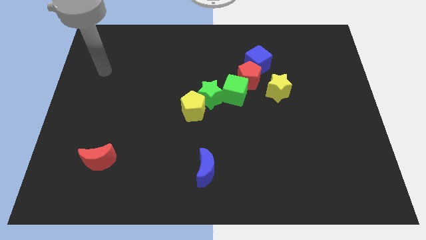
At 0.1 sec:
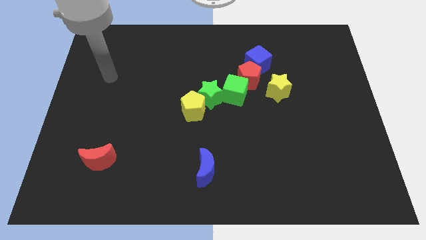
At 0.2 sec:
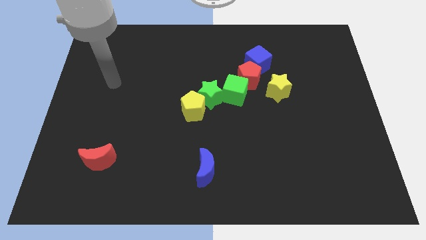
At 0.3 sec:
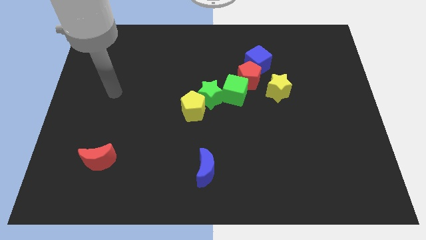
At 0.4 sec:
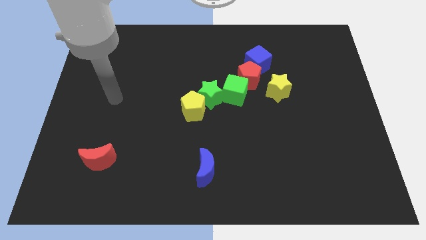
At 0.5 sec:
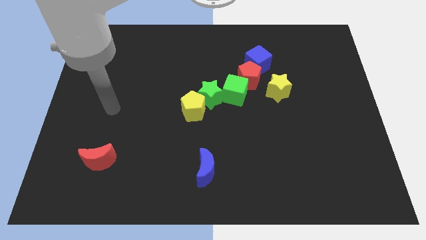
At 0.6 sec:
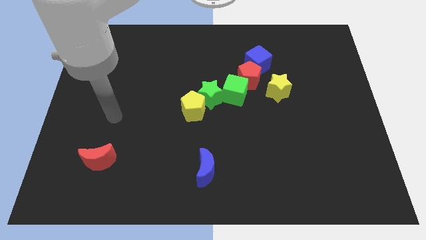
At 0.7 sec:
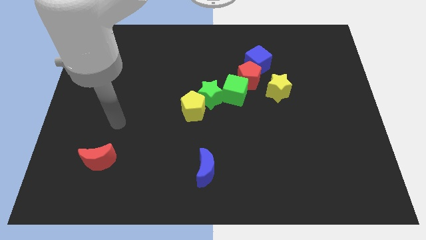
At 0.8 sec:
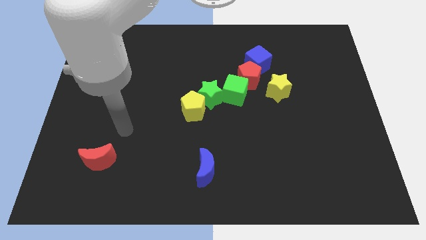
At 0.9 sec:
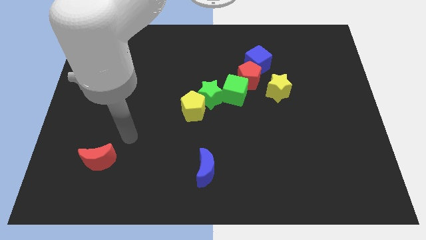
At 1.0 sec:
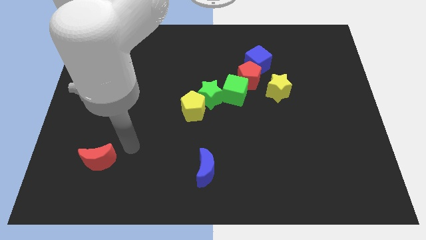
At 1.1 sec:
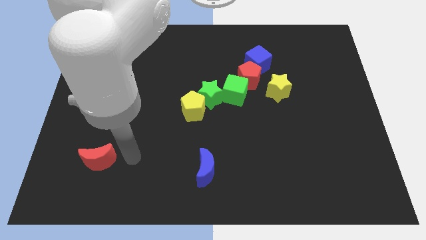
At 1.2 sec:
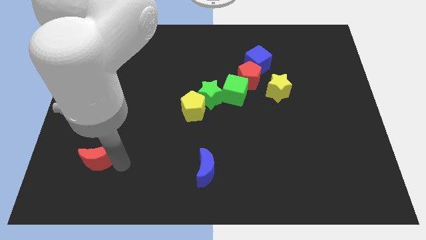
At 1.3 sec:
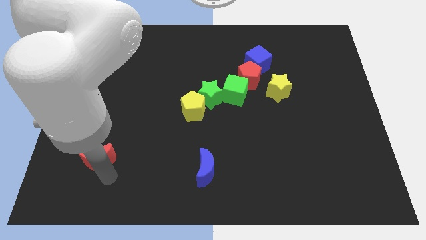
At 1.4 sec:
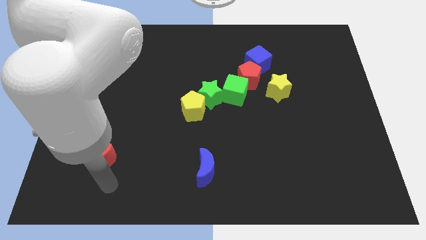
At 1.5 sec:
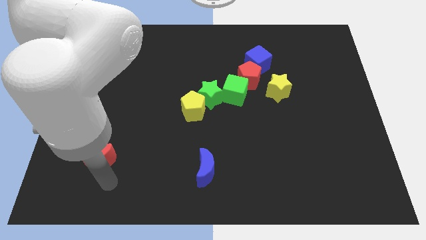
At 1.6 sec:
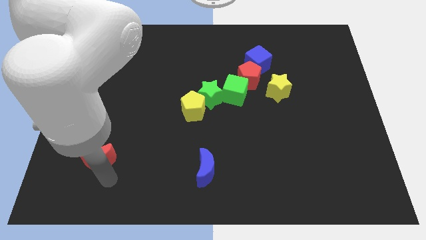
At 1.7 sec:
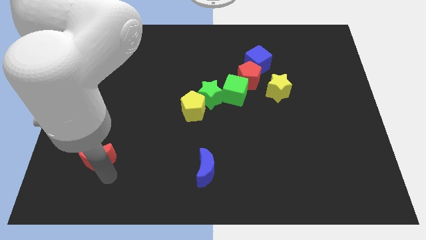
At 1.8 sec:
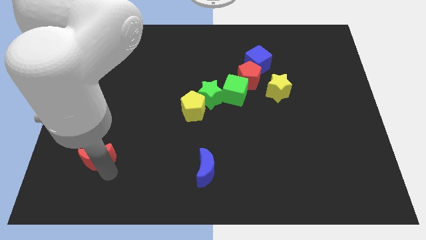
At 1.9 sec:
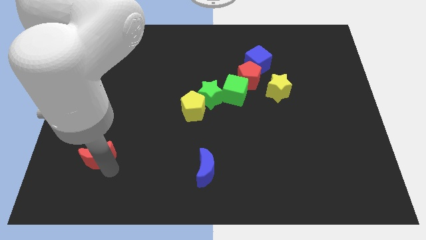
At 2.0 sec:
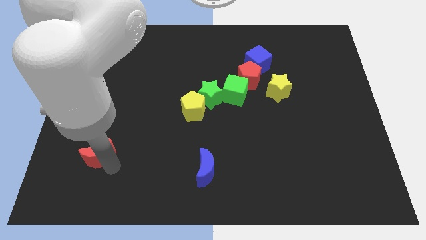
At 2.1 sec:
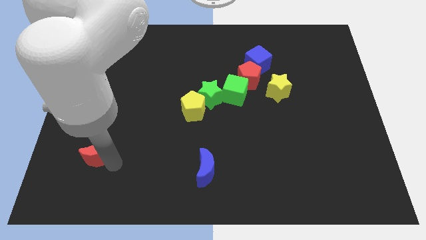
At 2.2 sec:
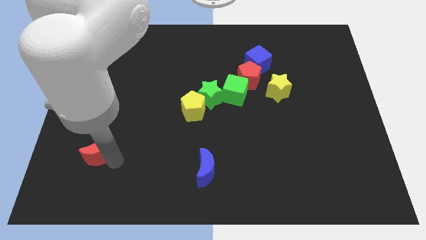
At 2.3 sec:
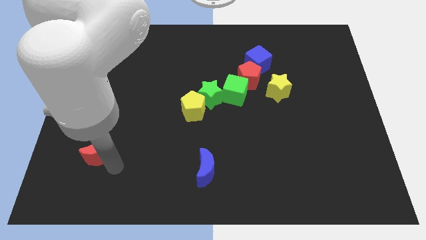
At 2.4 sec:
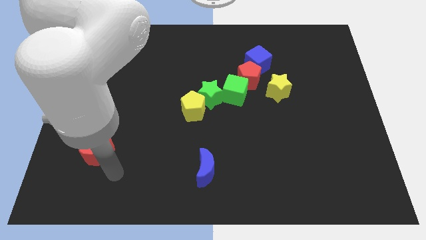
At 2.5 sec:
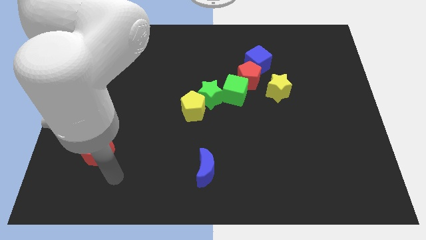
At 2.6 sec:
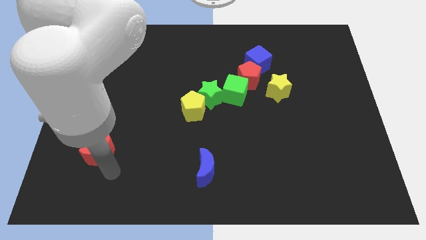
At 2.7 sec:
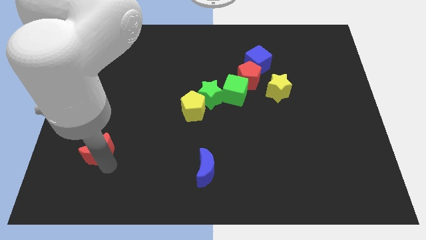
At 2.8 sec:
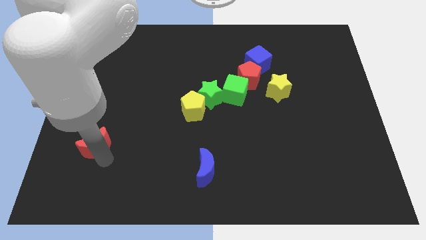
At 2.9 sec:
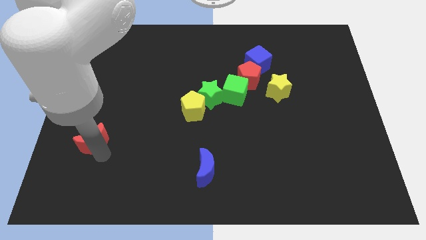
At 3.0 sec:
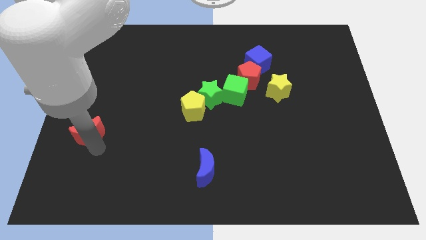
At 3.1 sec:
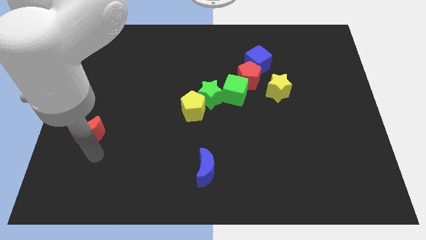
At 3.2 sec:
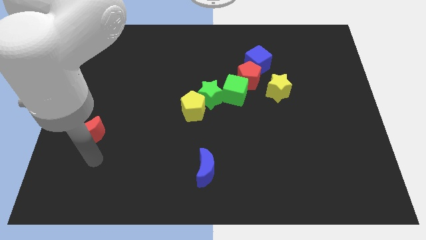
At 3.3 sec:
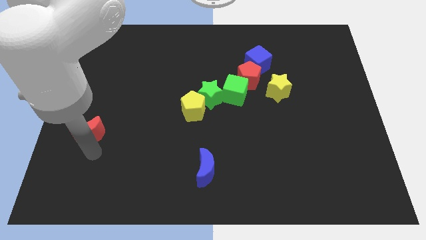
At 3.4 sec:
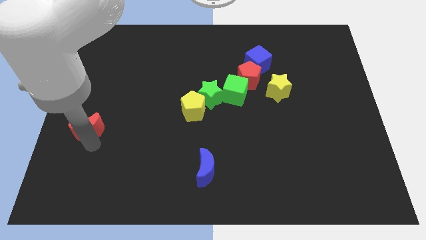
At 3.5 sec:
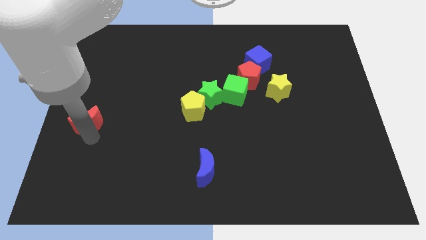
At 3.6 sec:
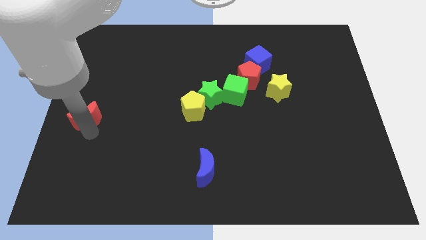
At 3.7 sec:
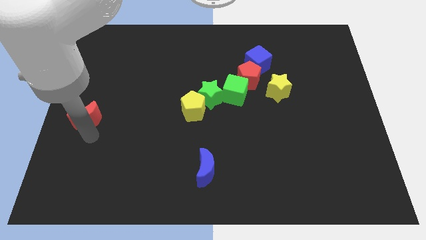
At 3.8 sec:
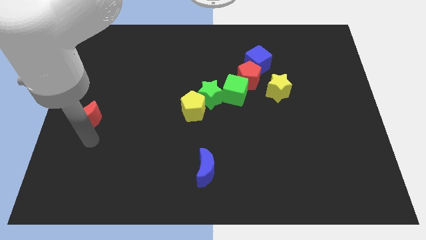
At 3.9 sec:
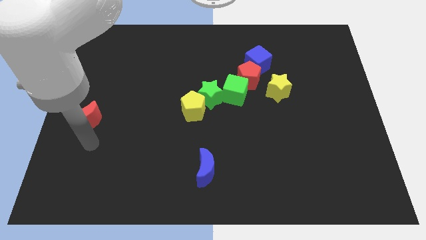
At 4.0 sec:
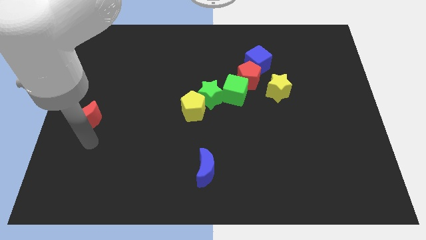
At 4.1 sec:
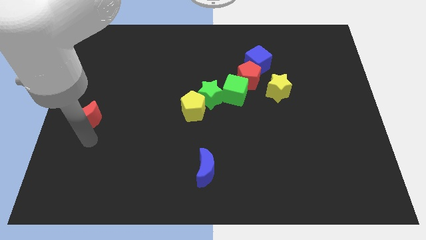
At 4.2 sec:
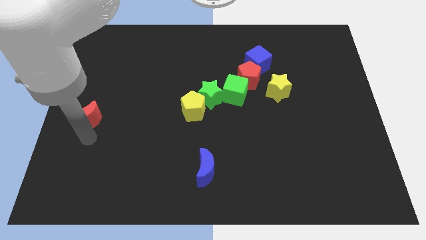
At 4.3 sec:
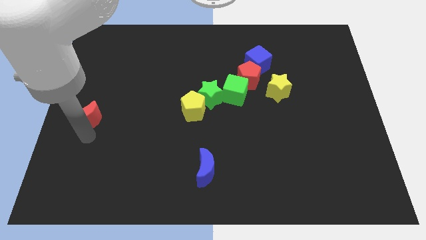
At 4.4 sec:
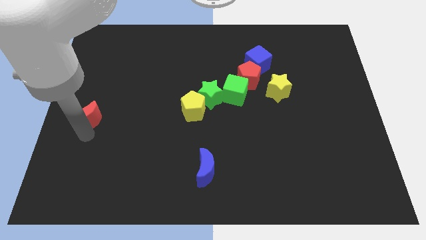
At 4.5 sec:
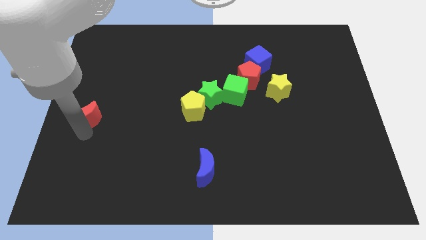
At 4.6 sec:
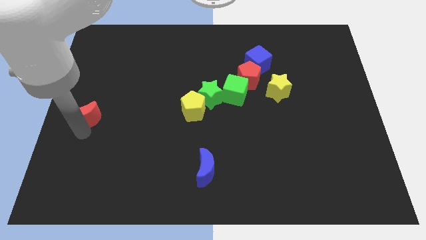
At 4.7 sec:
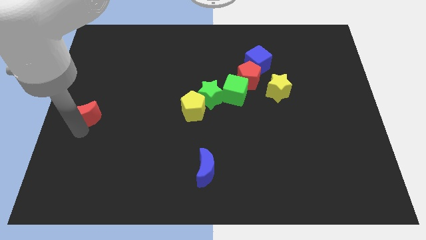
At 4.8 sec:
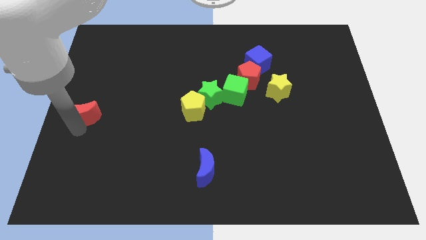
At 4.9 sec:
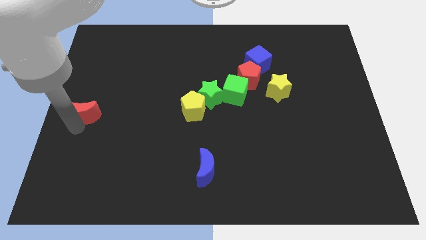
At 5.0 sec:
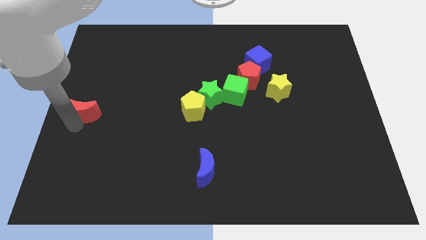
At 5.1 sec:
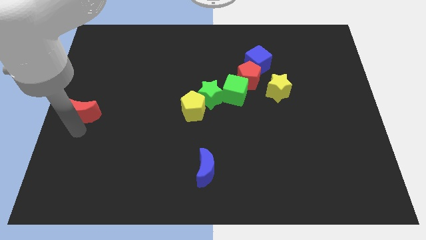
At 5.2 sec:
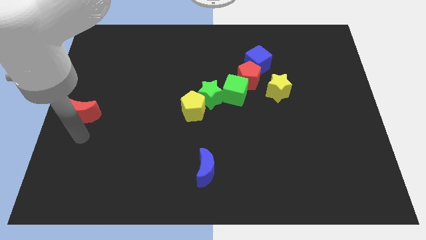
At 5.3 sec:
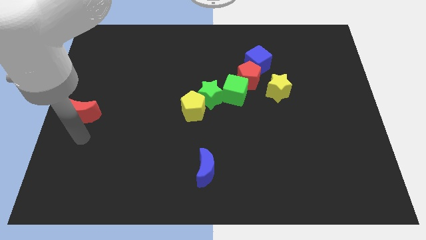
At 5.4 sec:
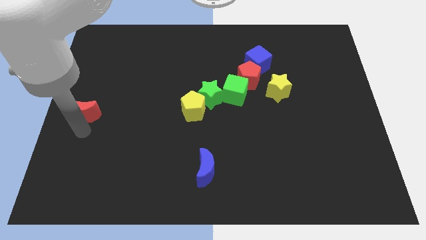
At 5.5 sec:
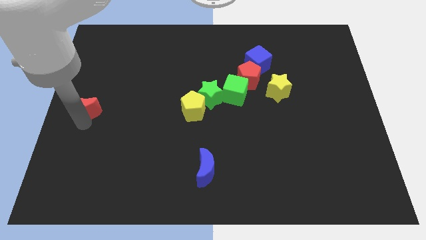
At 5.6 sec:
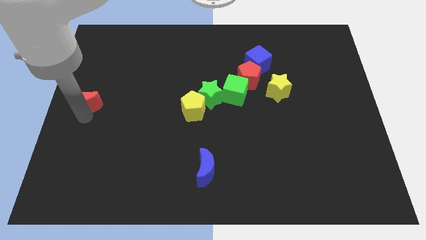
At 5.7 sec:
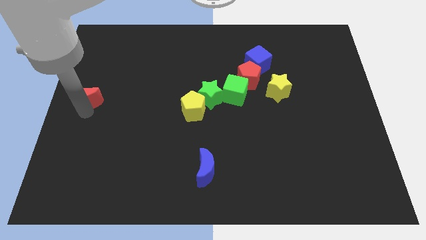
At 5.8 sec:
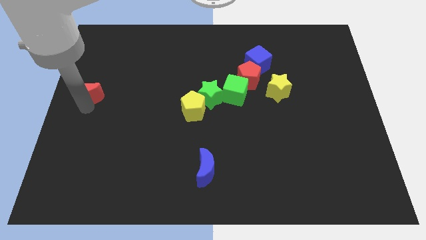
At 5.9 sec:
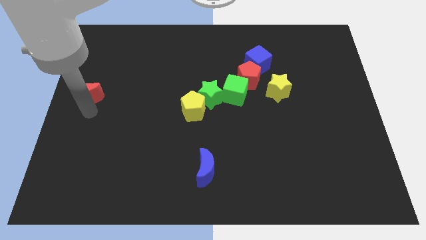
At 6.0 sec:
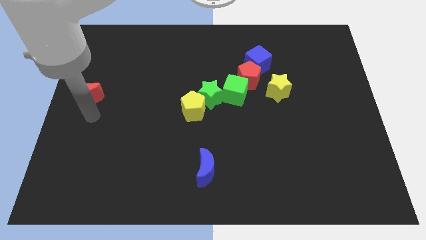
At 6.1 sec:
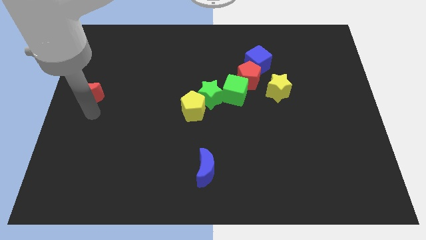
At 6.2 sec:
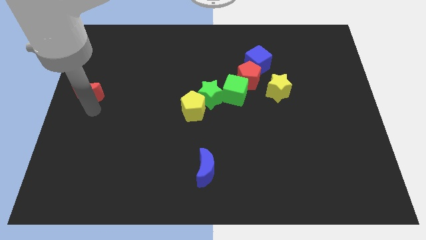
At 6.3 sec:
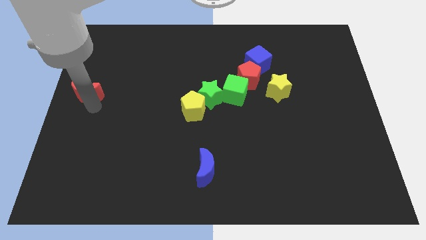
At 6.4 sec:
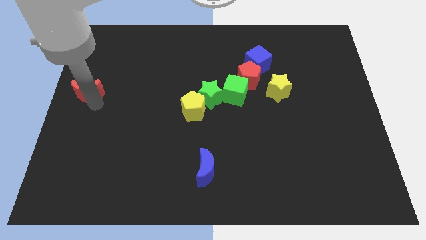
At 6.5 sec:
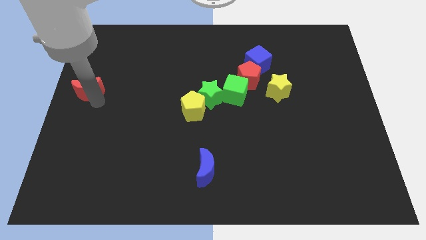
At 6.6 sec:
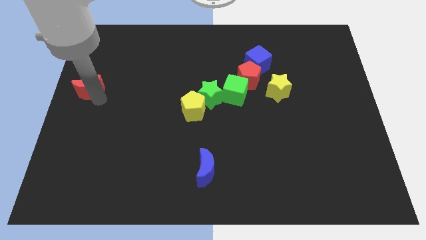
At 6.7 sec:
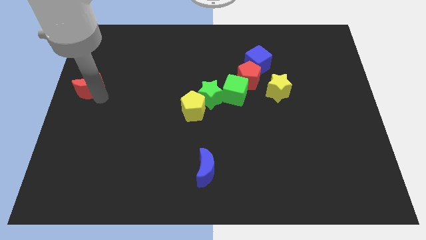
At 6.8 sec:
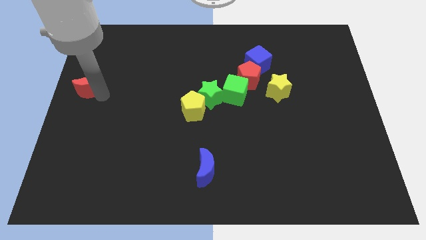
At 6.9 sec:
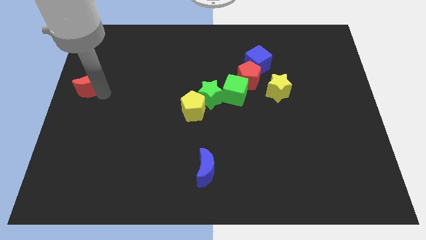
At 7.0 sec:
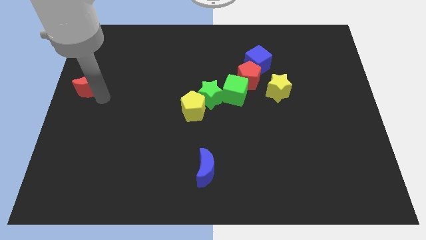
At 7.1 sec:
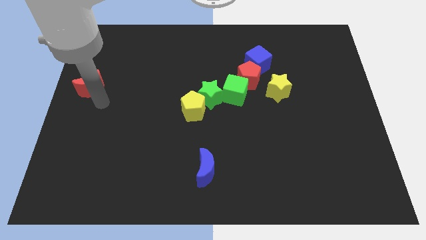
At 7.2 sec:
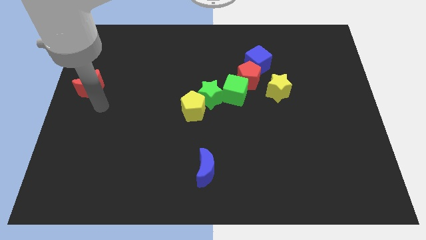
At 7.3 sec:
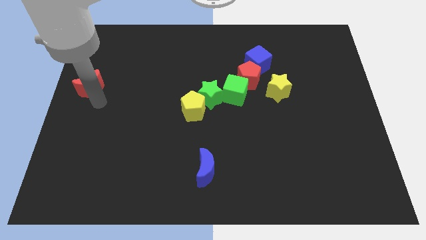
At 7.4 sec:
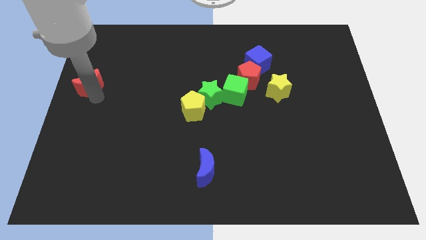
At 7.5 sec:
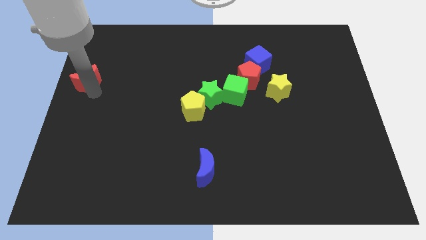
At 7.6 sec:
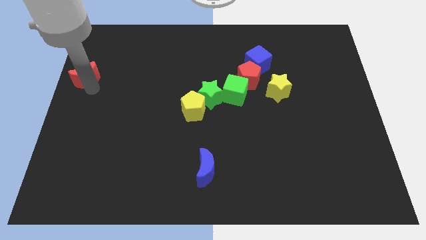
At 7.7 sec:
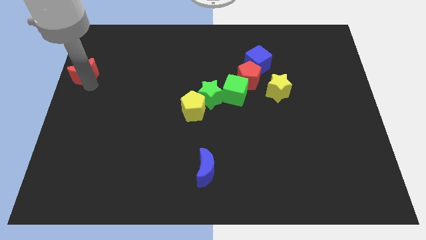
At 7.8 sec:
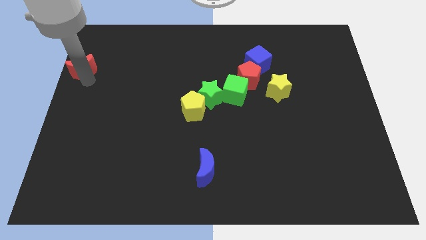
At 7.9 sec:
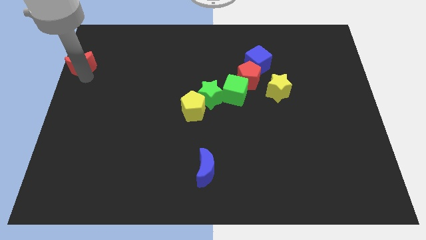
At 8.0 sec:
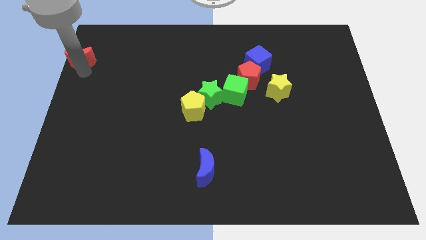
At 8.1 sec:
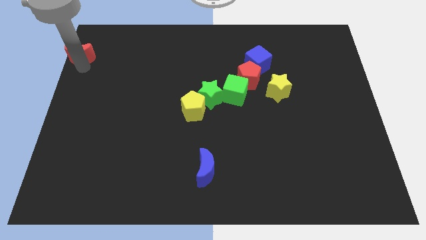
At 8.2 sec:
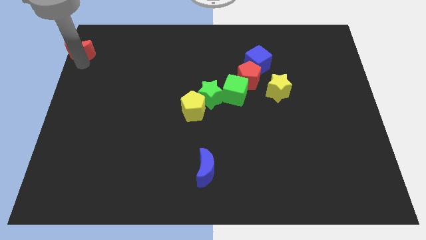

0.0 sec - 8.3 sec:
put the red moon to the top left of the board
